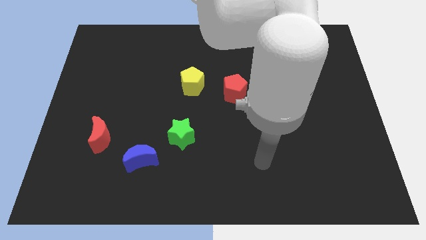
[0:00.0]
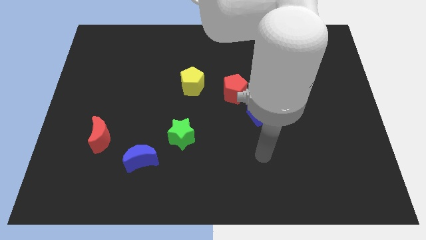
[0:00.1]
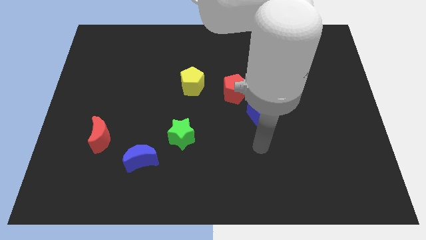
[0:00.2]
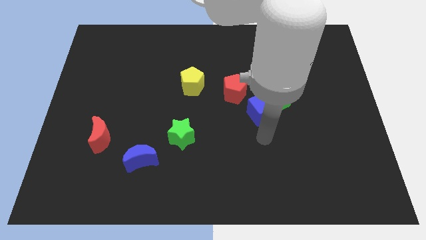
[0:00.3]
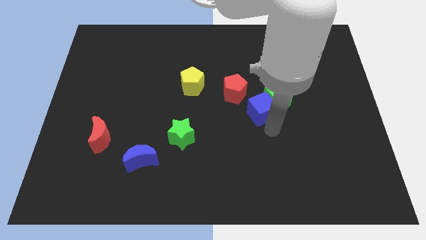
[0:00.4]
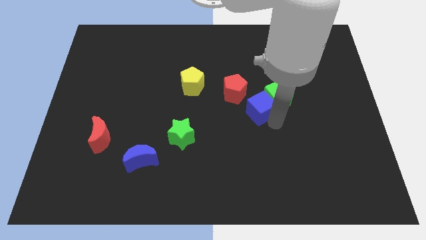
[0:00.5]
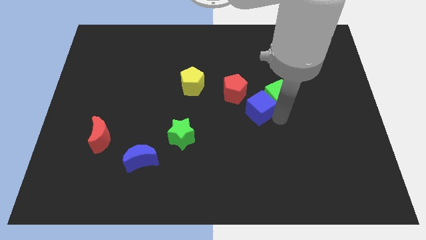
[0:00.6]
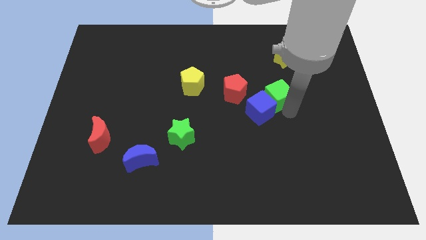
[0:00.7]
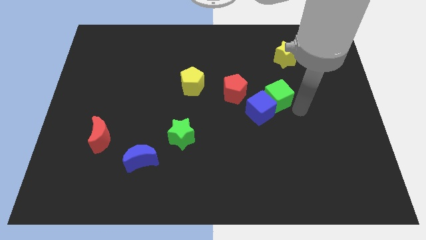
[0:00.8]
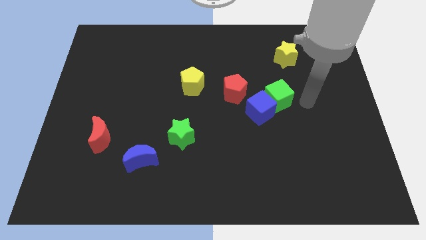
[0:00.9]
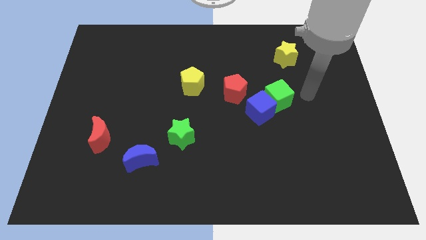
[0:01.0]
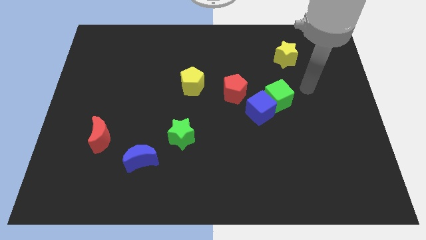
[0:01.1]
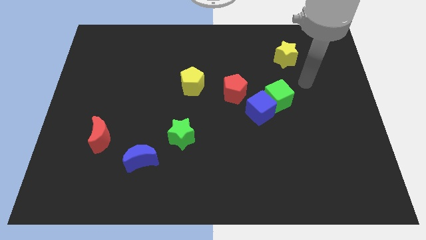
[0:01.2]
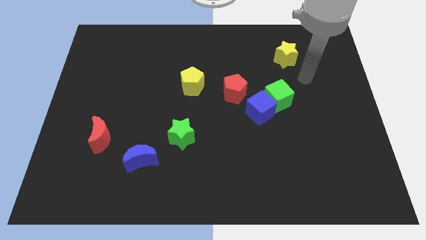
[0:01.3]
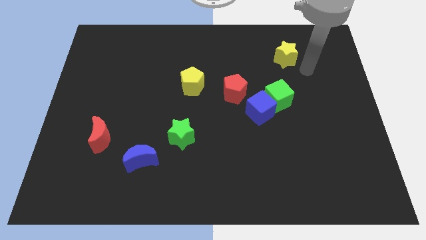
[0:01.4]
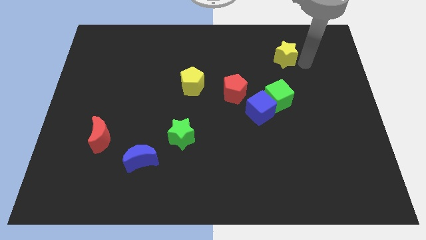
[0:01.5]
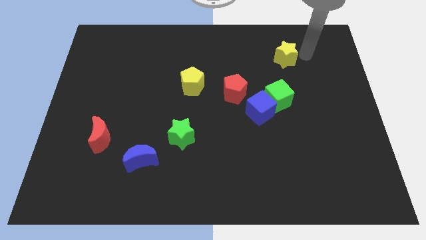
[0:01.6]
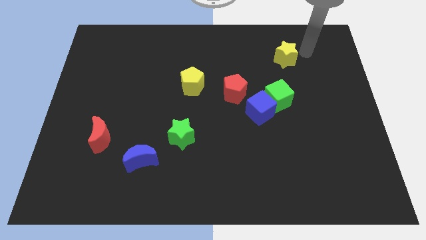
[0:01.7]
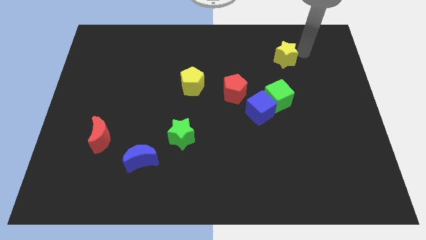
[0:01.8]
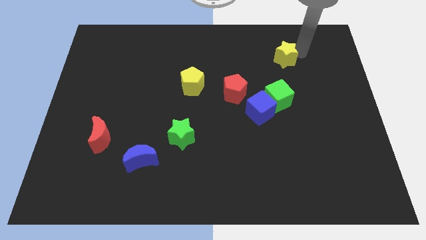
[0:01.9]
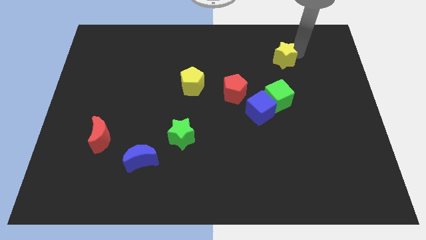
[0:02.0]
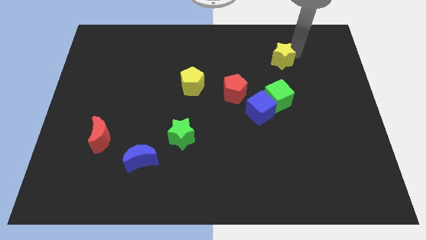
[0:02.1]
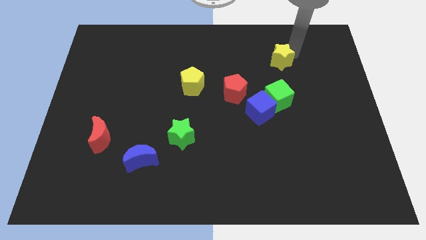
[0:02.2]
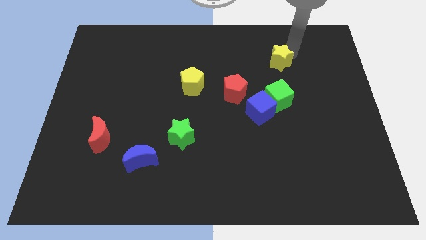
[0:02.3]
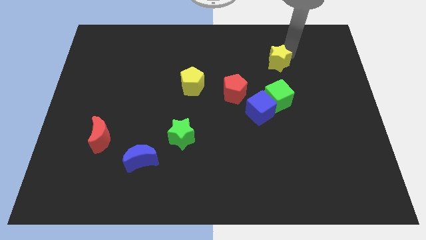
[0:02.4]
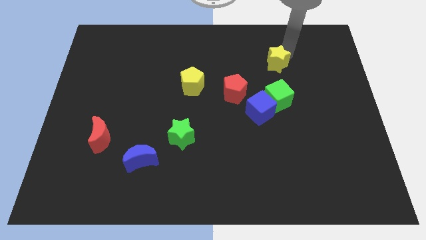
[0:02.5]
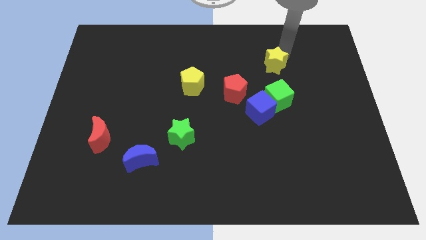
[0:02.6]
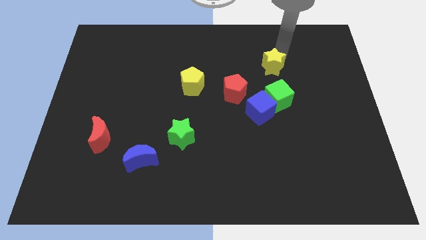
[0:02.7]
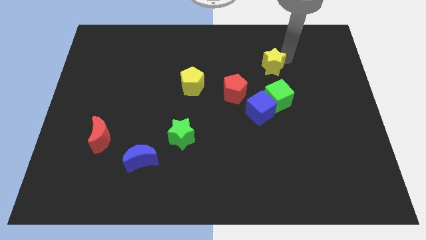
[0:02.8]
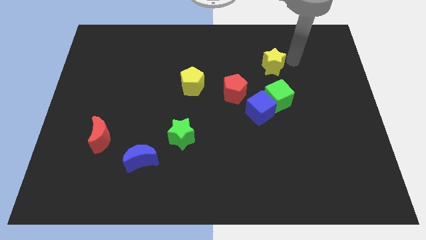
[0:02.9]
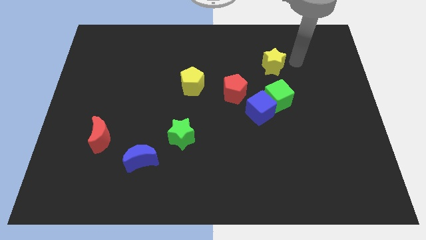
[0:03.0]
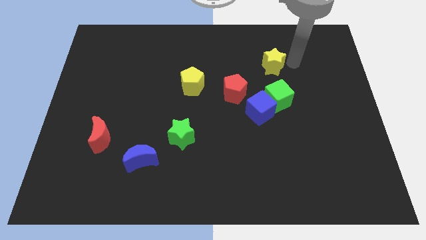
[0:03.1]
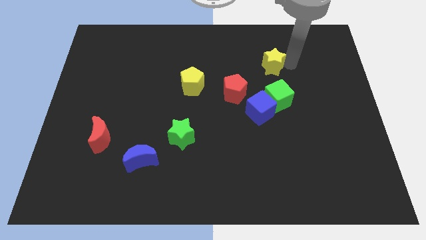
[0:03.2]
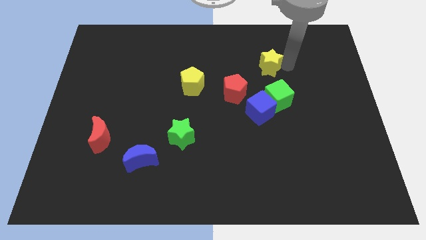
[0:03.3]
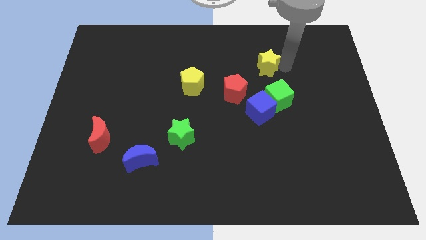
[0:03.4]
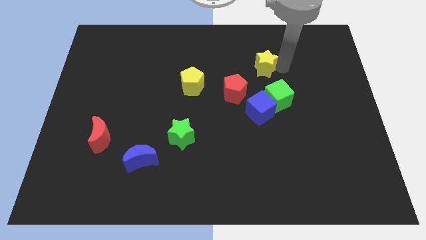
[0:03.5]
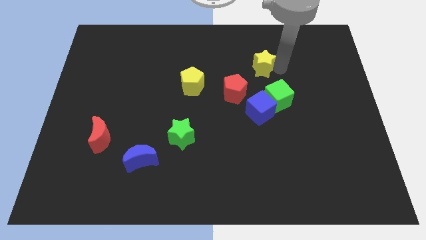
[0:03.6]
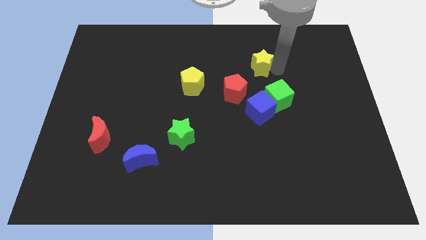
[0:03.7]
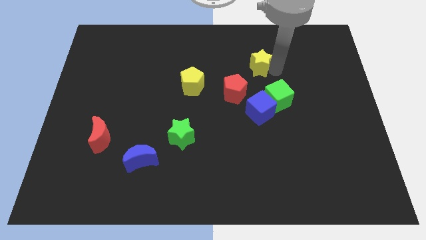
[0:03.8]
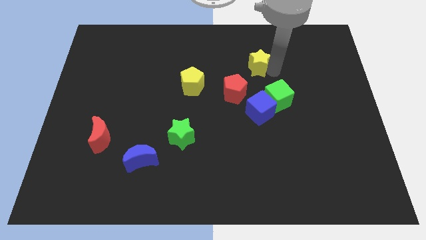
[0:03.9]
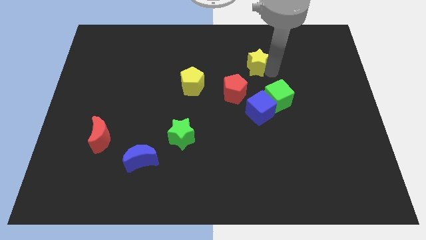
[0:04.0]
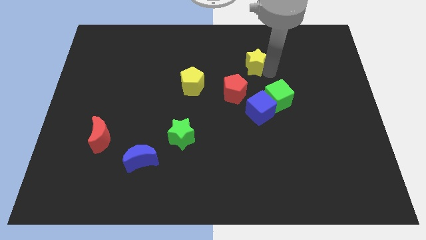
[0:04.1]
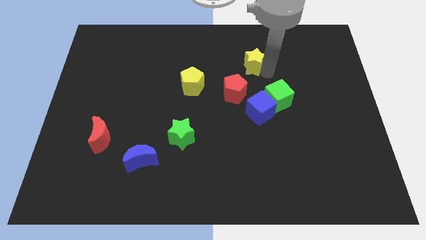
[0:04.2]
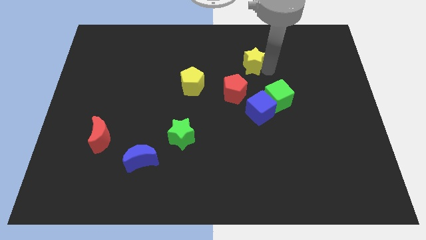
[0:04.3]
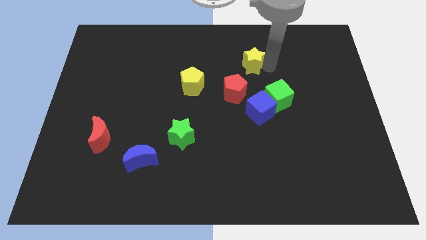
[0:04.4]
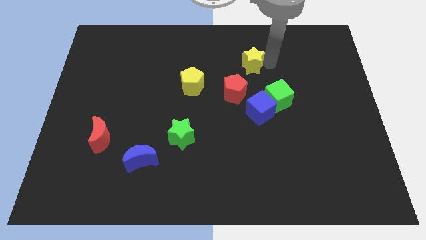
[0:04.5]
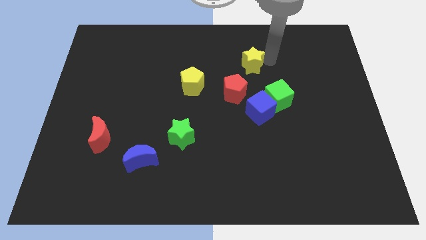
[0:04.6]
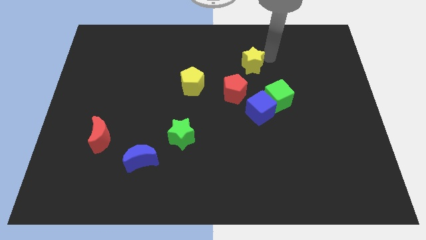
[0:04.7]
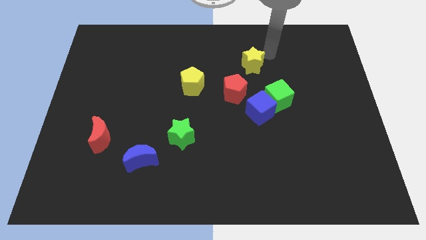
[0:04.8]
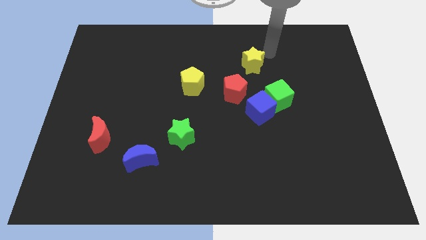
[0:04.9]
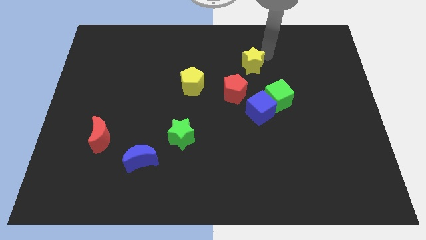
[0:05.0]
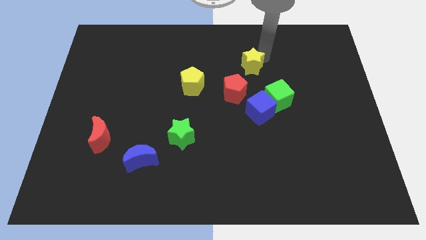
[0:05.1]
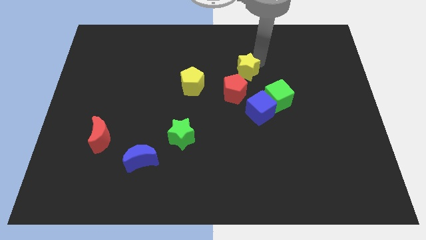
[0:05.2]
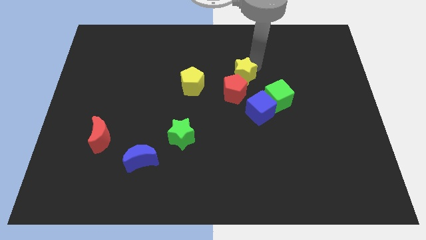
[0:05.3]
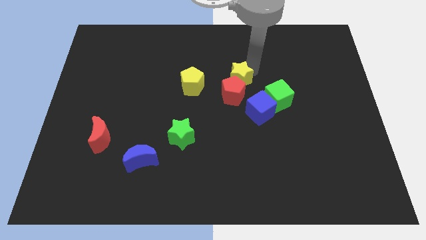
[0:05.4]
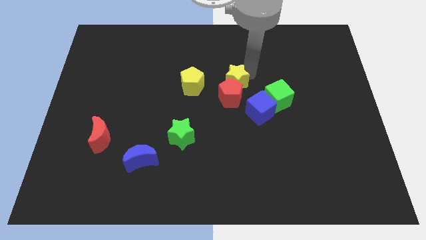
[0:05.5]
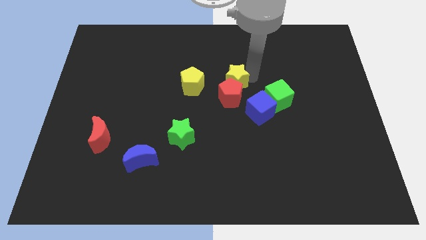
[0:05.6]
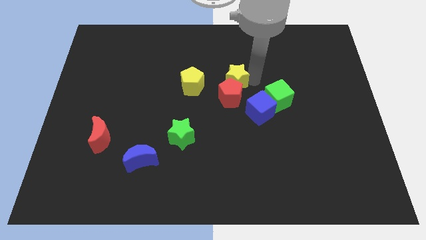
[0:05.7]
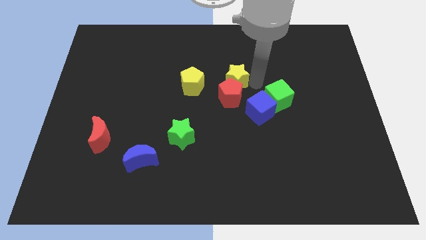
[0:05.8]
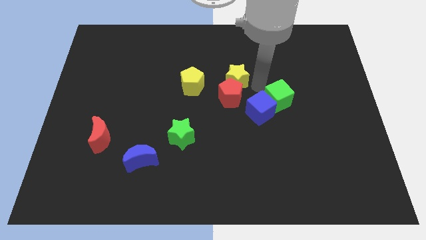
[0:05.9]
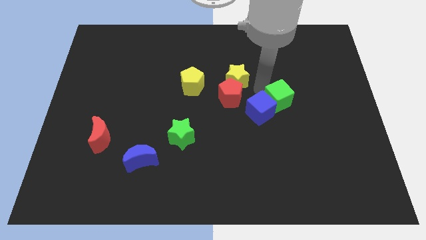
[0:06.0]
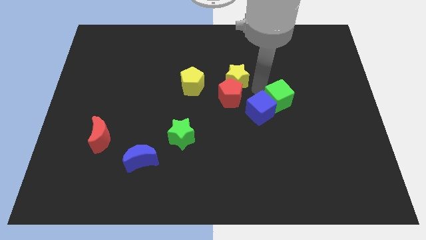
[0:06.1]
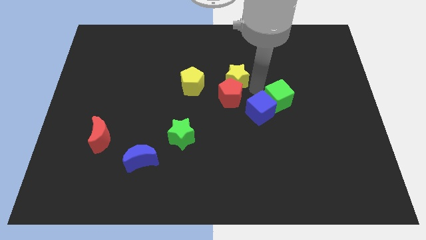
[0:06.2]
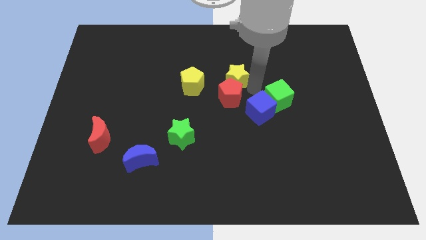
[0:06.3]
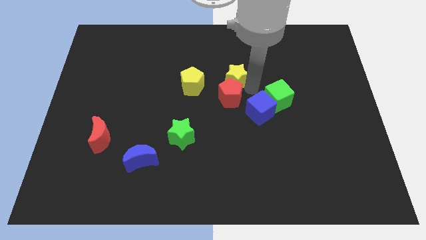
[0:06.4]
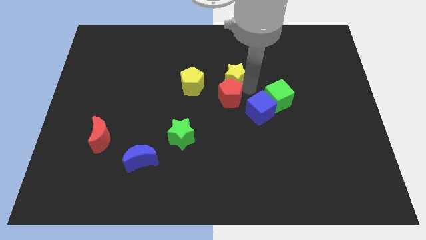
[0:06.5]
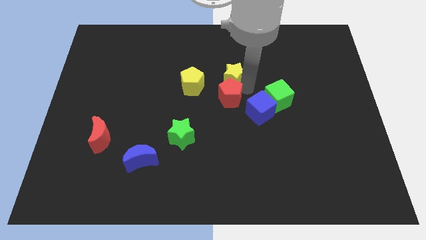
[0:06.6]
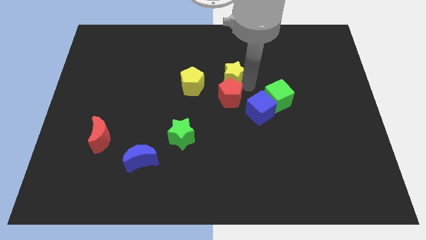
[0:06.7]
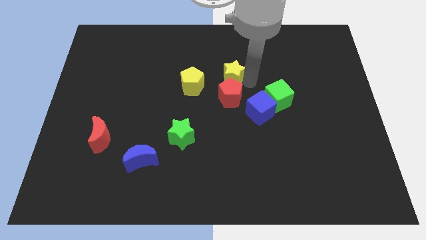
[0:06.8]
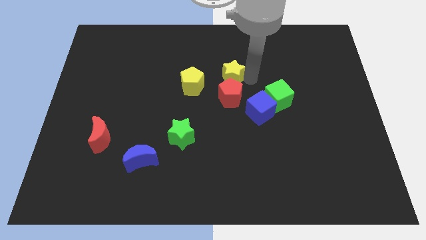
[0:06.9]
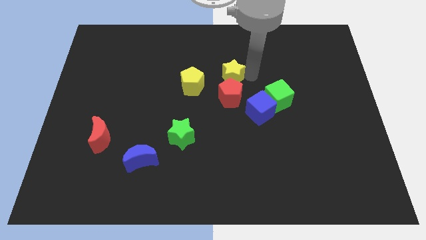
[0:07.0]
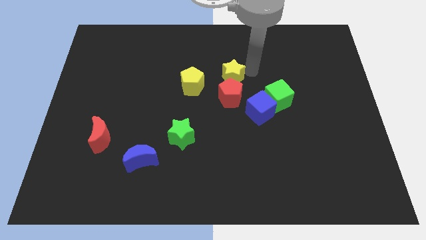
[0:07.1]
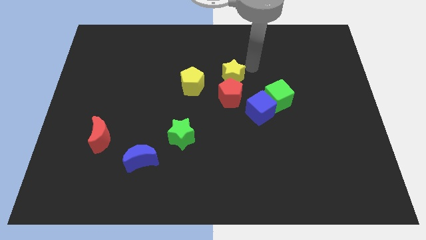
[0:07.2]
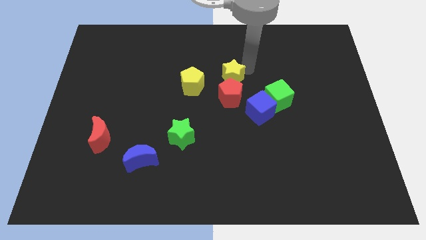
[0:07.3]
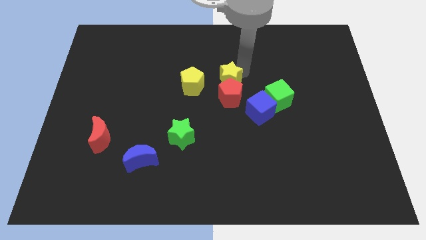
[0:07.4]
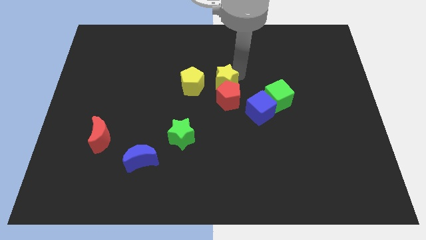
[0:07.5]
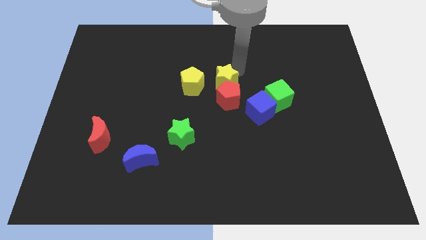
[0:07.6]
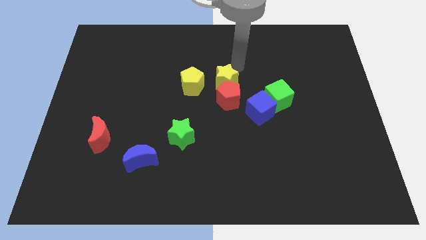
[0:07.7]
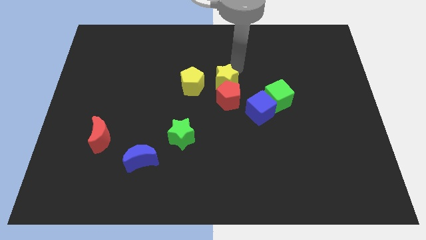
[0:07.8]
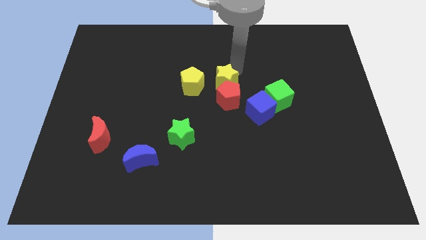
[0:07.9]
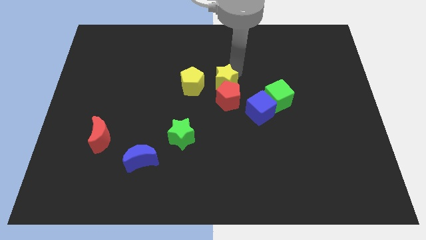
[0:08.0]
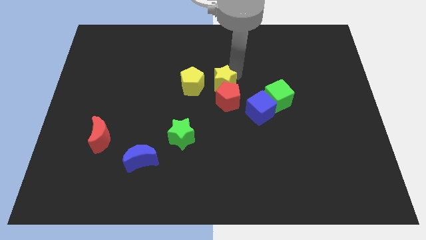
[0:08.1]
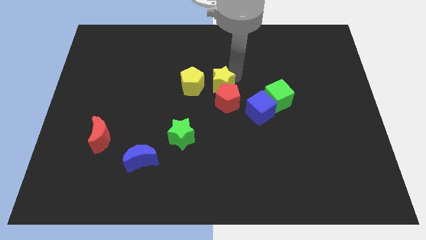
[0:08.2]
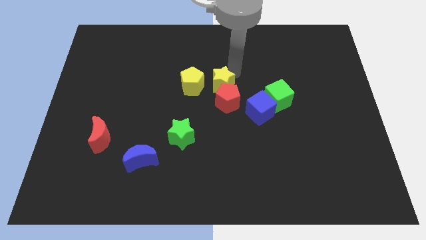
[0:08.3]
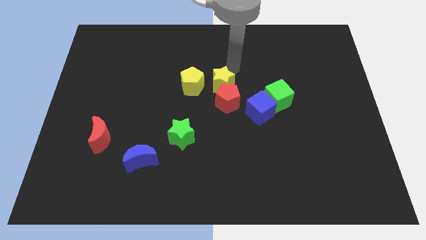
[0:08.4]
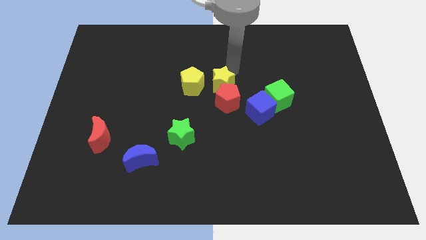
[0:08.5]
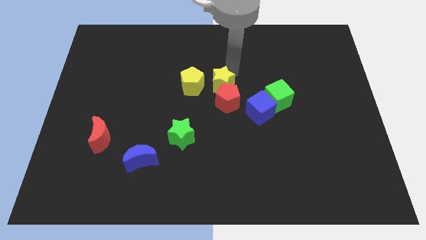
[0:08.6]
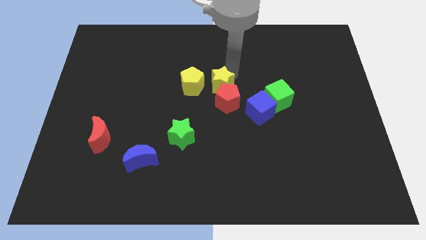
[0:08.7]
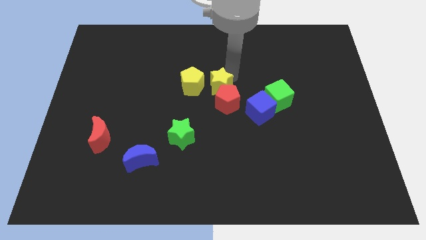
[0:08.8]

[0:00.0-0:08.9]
slide the yellow star to the bottom right side of the yellow pentagon
